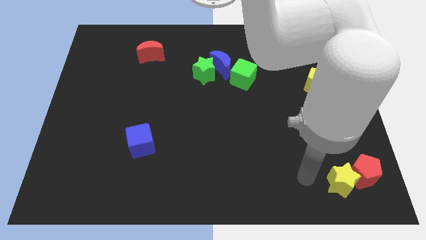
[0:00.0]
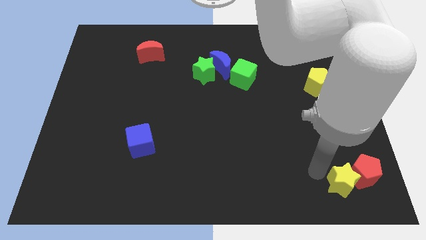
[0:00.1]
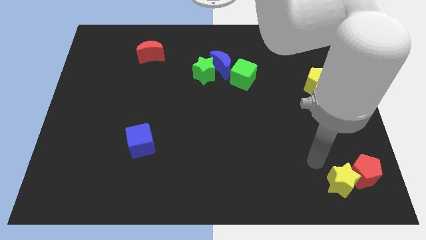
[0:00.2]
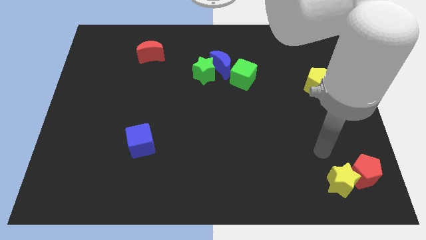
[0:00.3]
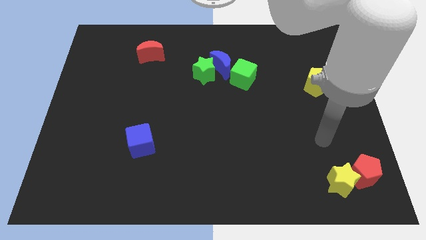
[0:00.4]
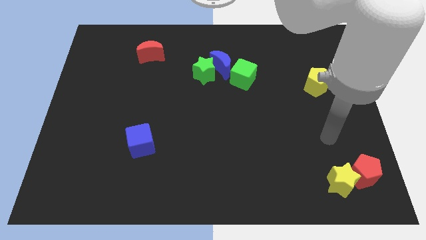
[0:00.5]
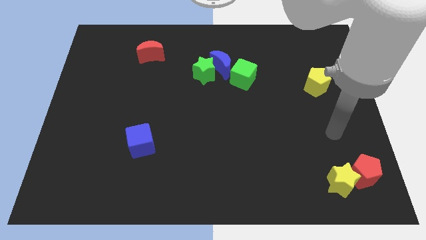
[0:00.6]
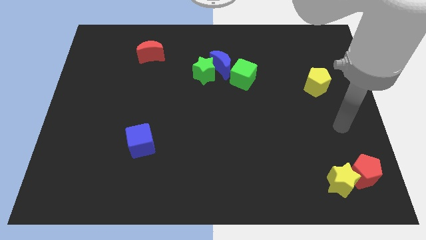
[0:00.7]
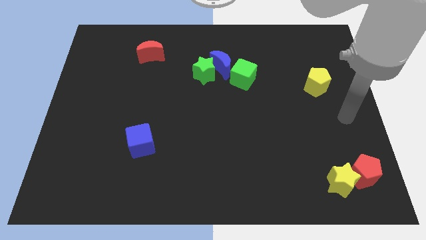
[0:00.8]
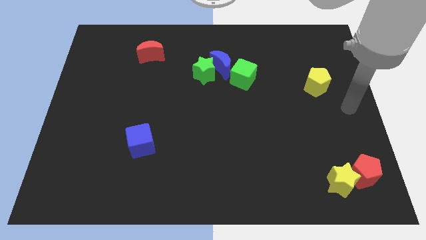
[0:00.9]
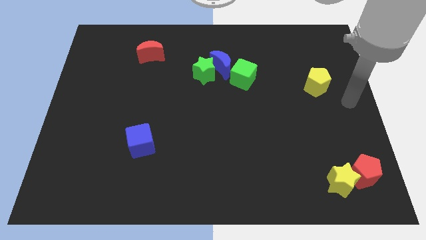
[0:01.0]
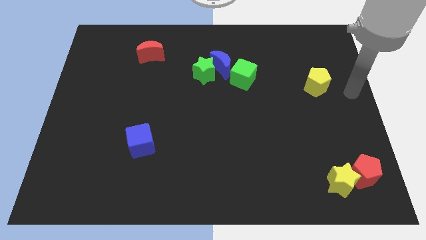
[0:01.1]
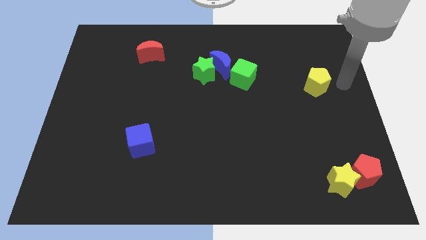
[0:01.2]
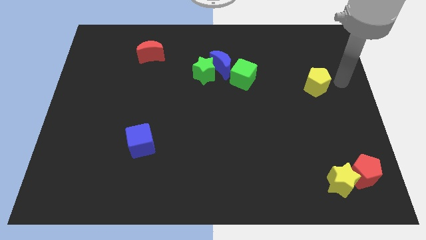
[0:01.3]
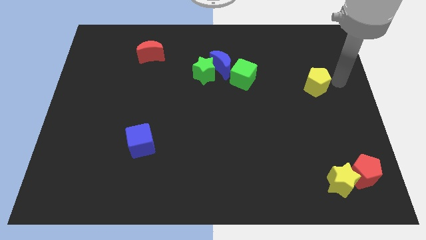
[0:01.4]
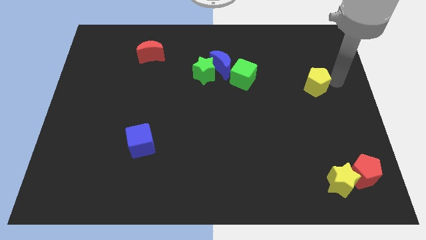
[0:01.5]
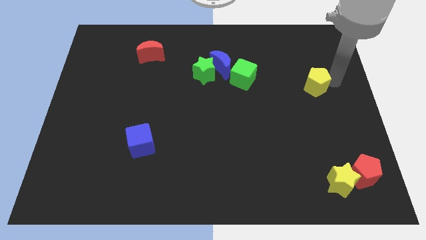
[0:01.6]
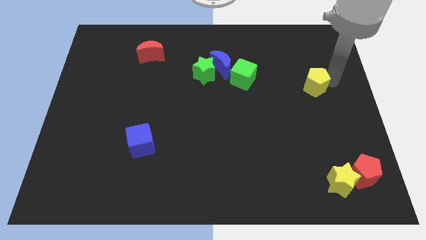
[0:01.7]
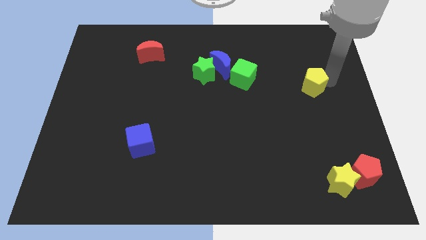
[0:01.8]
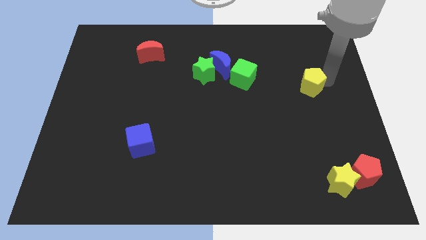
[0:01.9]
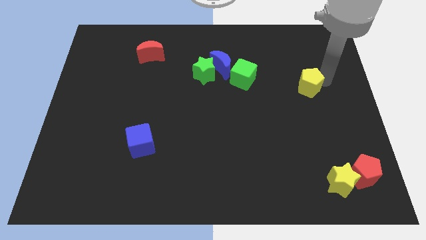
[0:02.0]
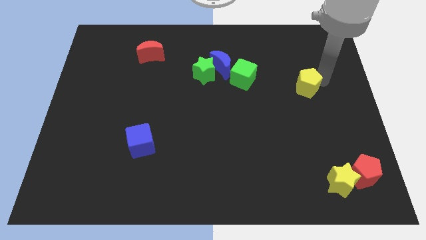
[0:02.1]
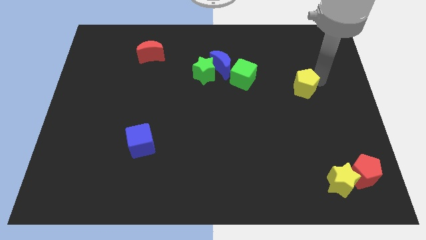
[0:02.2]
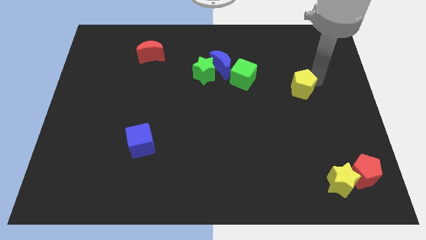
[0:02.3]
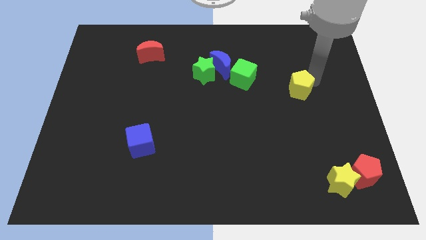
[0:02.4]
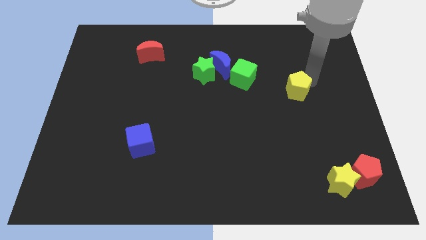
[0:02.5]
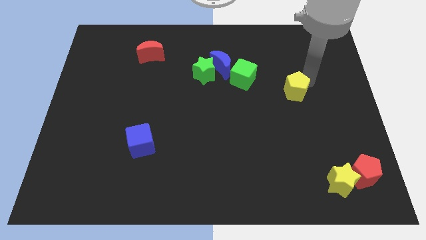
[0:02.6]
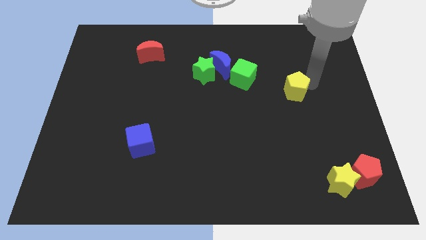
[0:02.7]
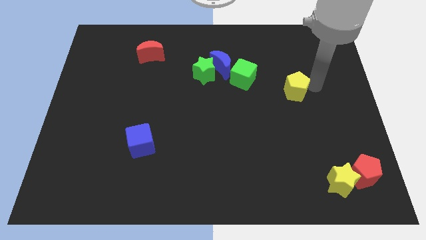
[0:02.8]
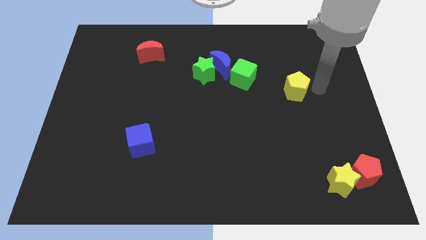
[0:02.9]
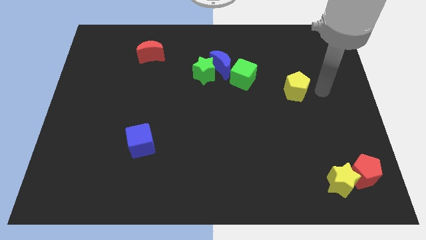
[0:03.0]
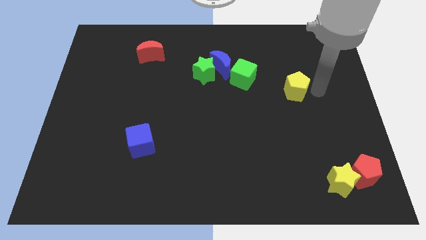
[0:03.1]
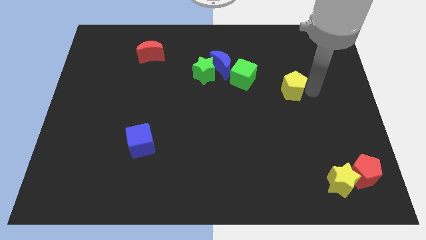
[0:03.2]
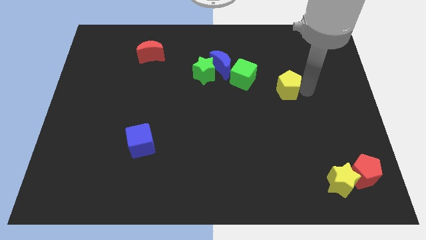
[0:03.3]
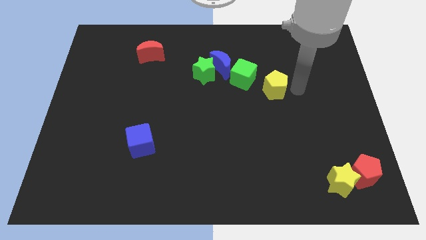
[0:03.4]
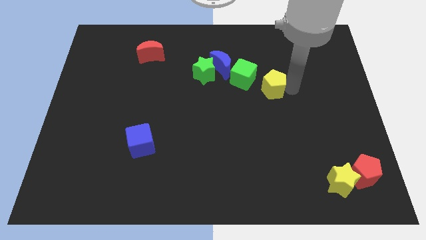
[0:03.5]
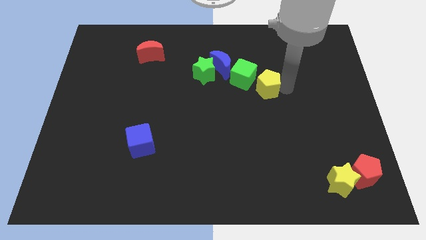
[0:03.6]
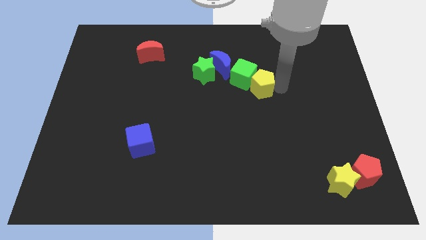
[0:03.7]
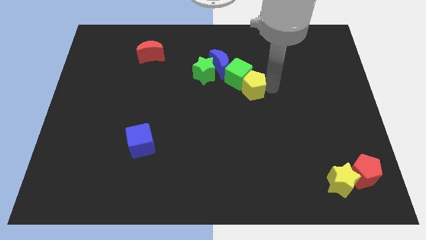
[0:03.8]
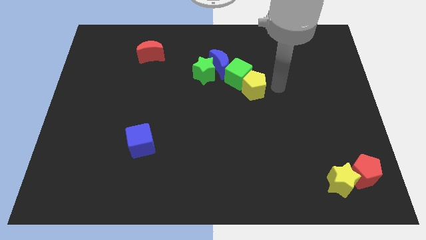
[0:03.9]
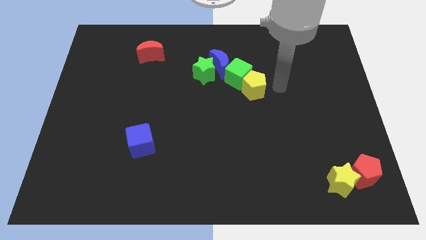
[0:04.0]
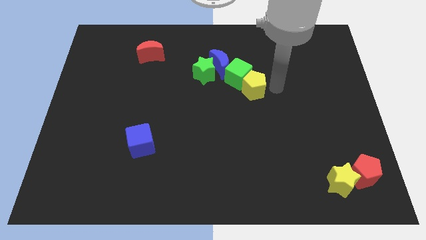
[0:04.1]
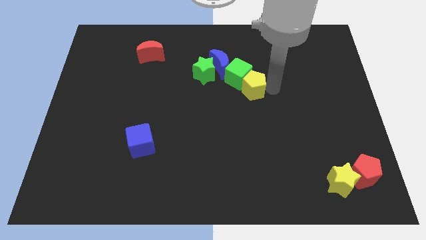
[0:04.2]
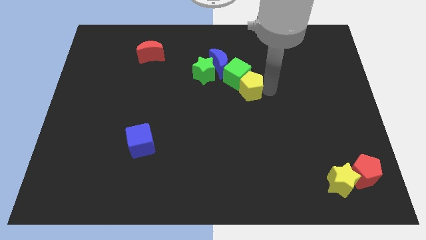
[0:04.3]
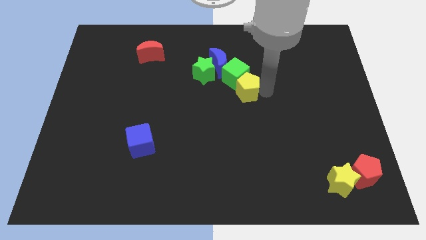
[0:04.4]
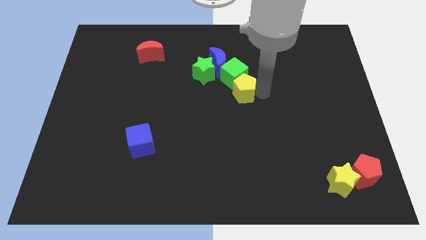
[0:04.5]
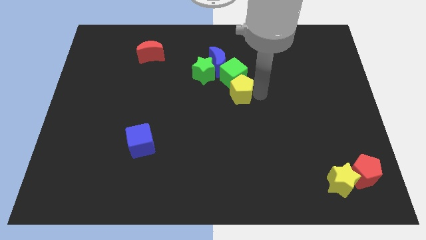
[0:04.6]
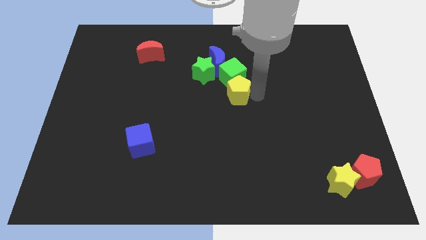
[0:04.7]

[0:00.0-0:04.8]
put the yellow pentagon diagonally down and to the left of the green cube

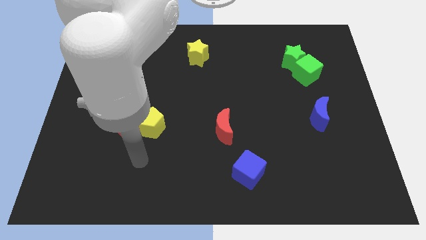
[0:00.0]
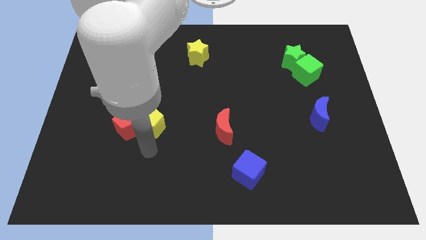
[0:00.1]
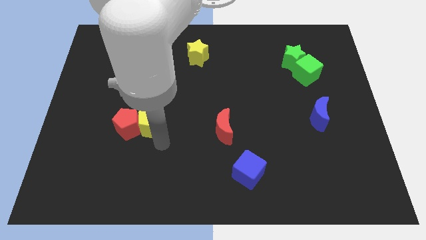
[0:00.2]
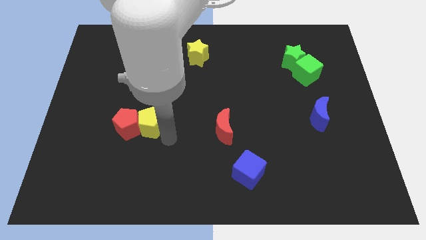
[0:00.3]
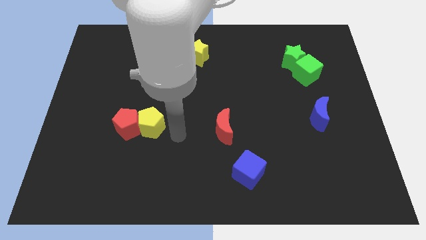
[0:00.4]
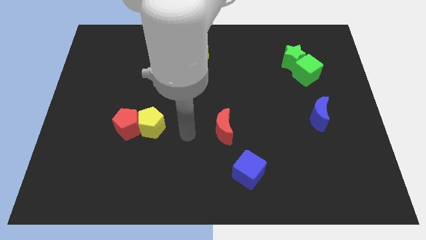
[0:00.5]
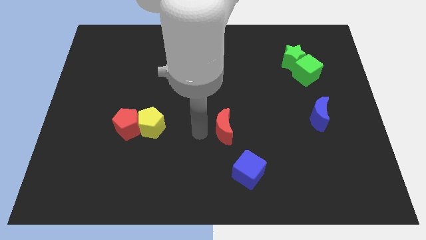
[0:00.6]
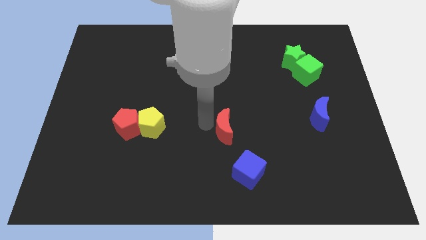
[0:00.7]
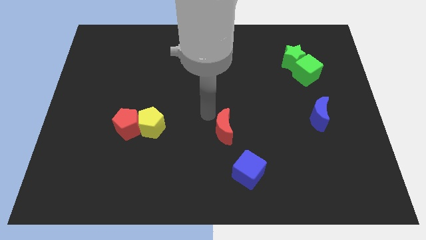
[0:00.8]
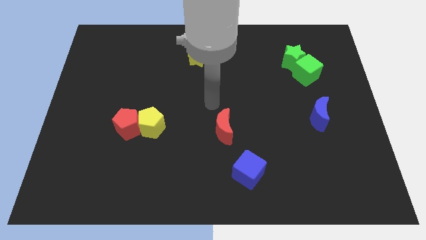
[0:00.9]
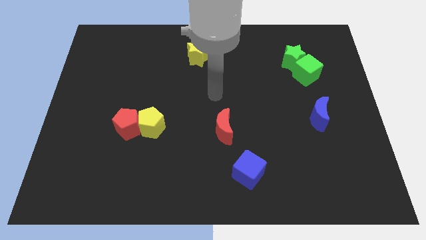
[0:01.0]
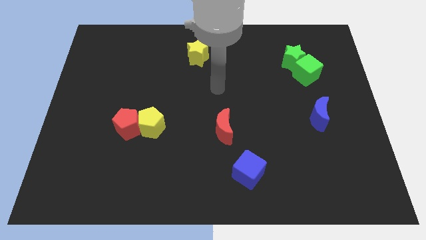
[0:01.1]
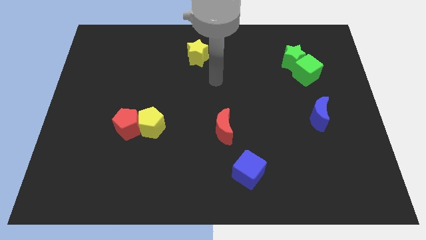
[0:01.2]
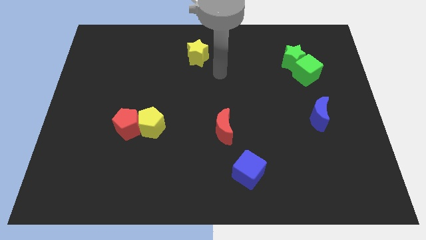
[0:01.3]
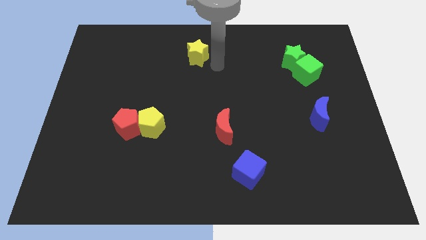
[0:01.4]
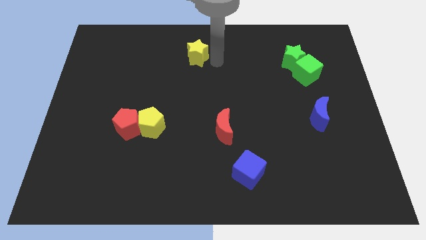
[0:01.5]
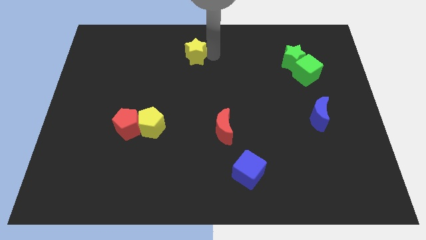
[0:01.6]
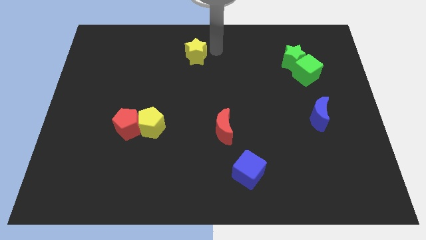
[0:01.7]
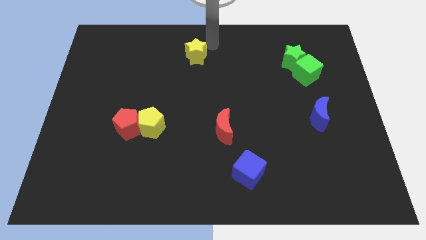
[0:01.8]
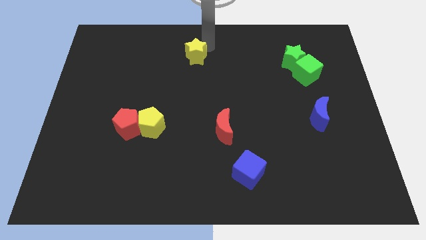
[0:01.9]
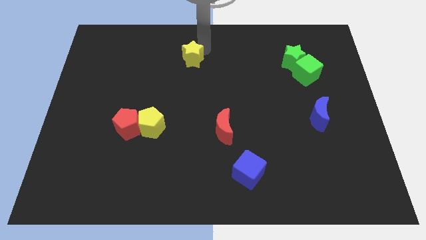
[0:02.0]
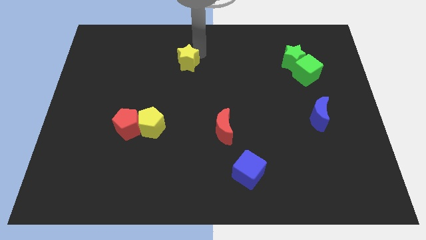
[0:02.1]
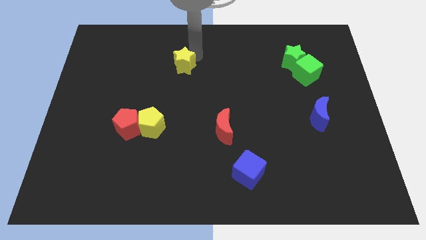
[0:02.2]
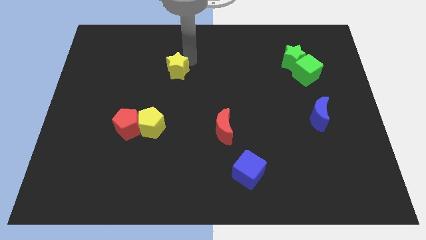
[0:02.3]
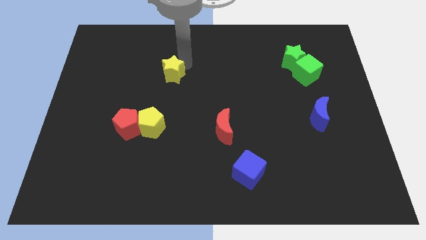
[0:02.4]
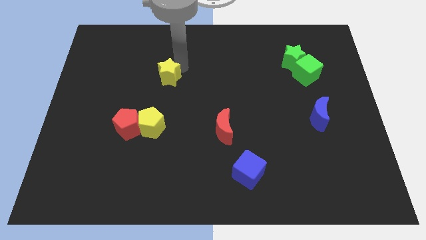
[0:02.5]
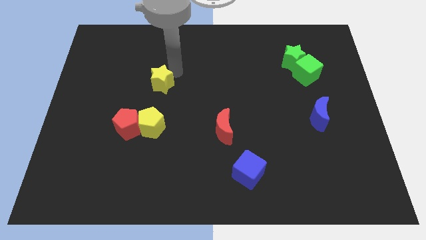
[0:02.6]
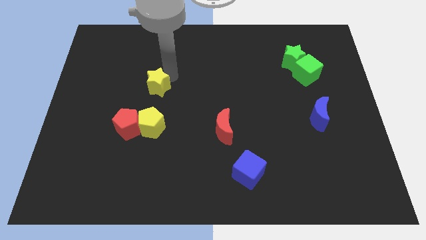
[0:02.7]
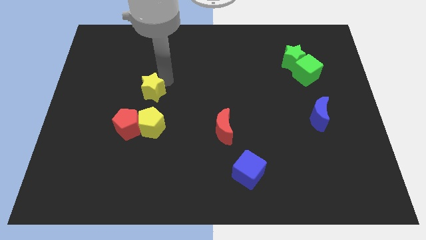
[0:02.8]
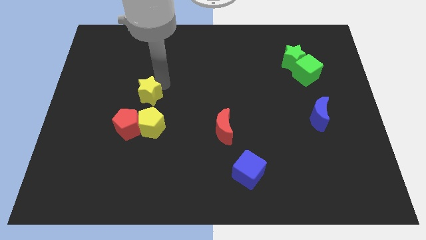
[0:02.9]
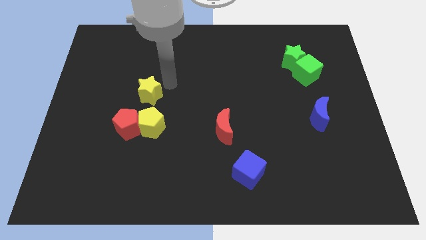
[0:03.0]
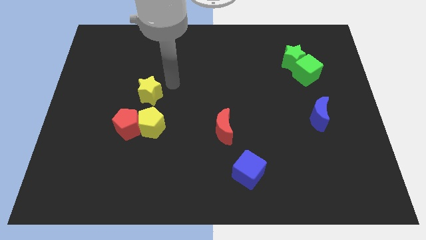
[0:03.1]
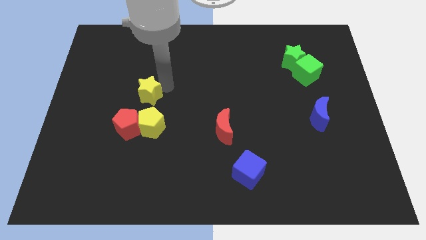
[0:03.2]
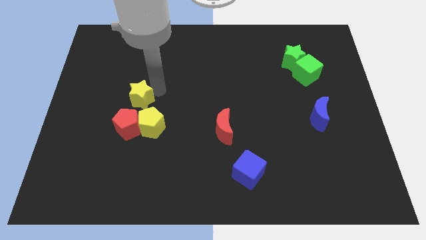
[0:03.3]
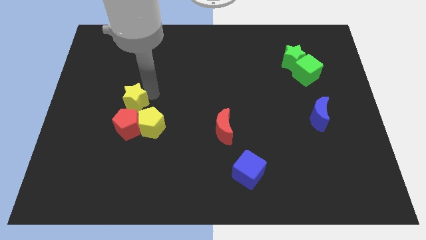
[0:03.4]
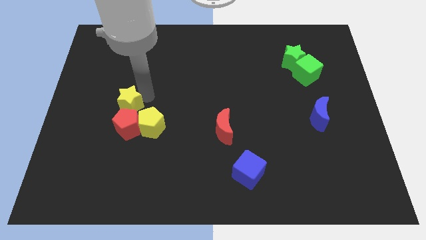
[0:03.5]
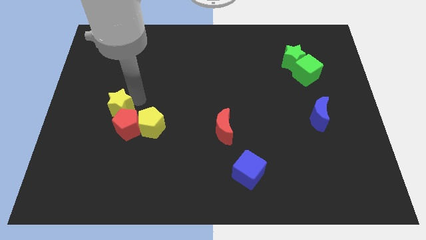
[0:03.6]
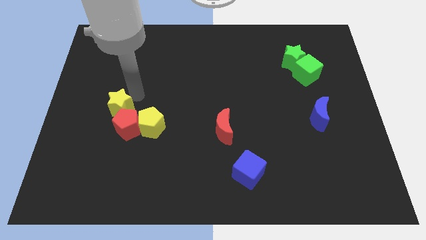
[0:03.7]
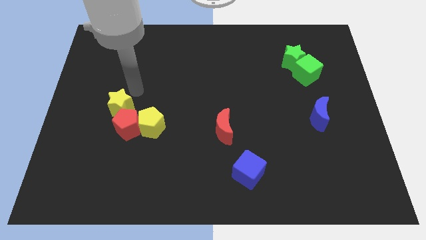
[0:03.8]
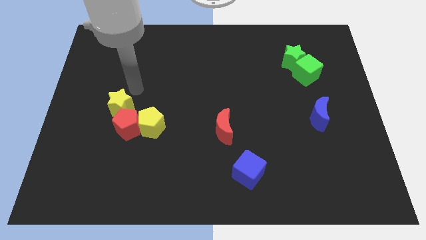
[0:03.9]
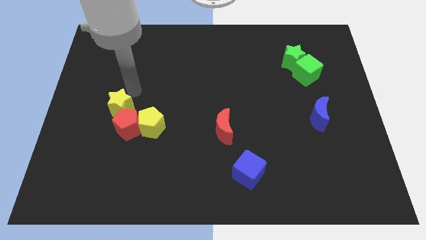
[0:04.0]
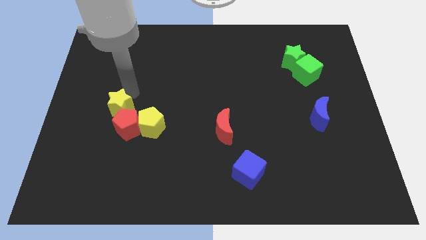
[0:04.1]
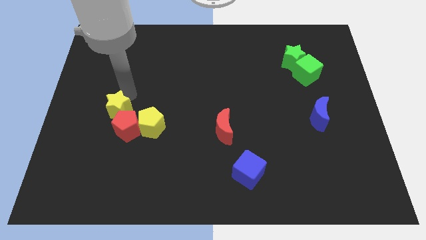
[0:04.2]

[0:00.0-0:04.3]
move the yellow star just left of the yellow pentagon
